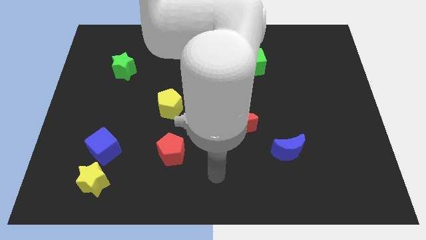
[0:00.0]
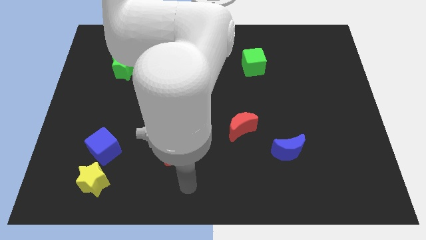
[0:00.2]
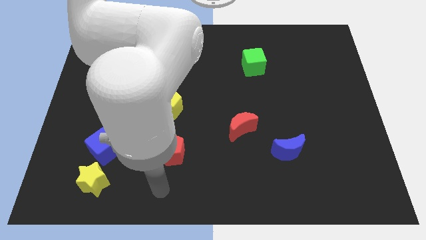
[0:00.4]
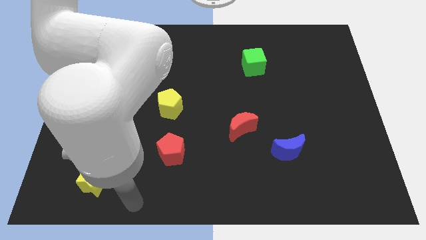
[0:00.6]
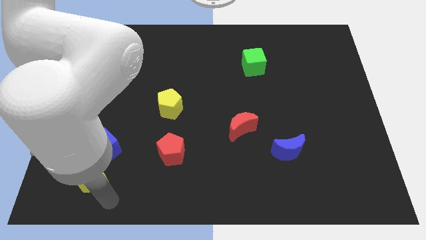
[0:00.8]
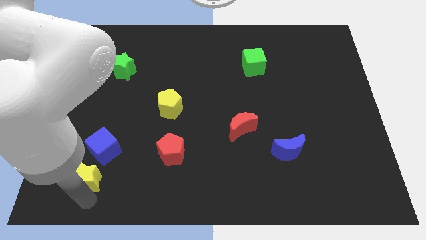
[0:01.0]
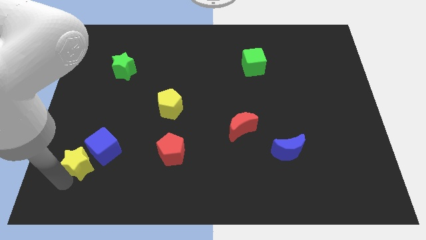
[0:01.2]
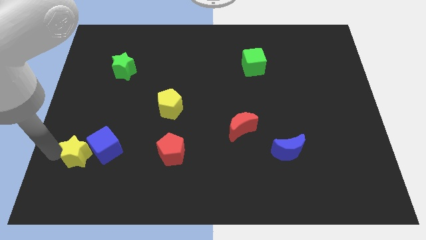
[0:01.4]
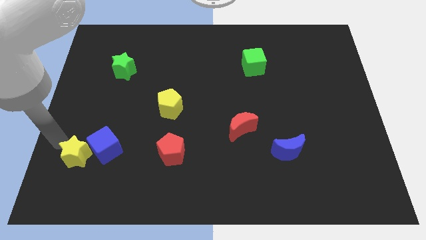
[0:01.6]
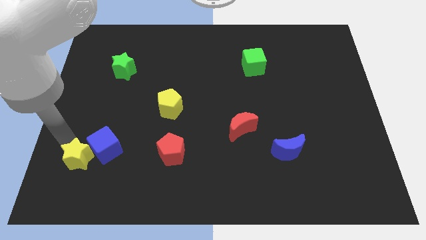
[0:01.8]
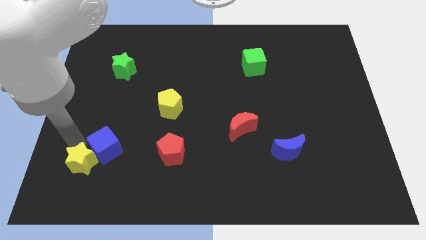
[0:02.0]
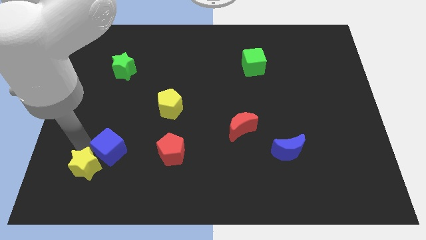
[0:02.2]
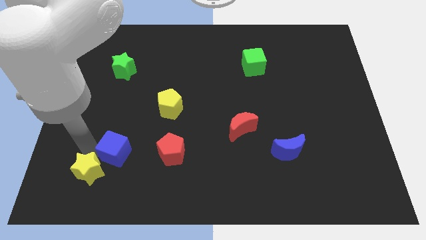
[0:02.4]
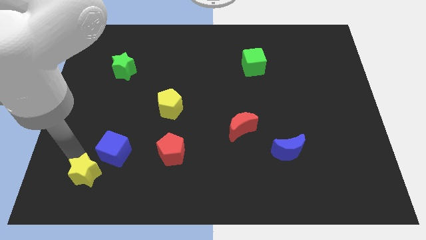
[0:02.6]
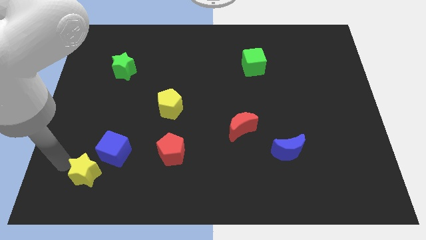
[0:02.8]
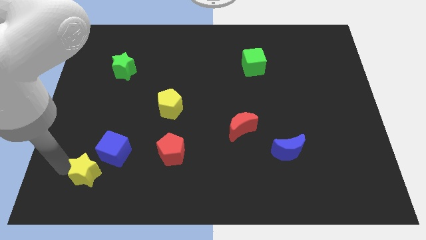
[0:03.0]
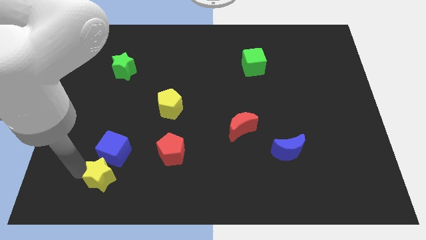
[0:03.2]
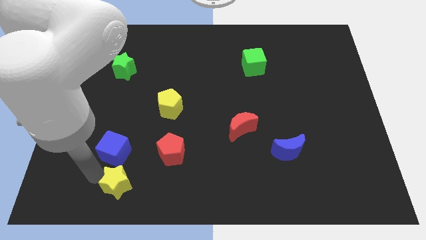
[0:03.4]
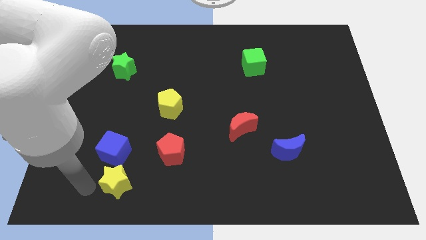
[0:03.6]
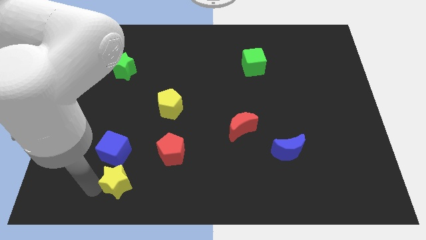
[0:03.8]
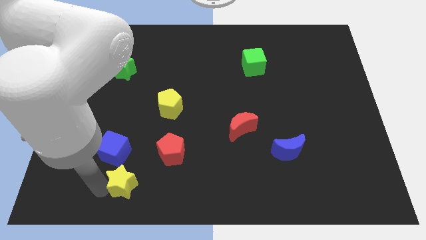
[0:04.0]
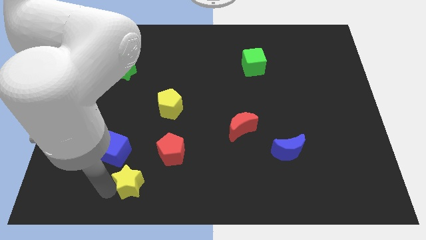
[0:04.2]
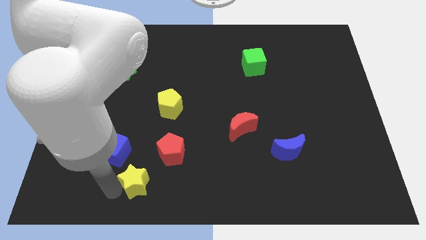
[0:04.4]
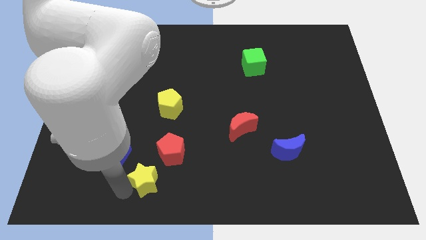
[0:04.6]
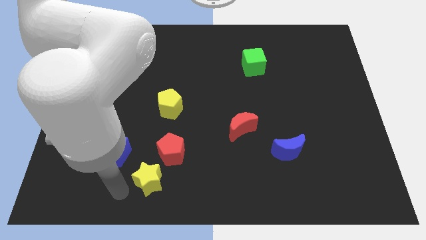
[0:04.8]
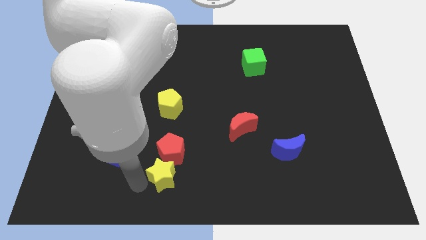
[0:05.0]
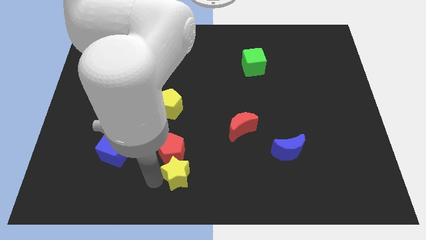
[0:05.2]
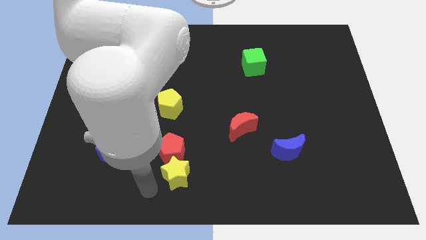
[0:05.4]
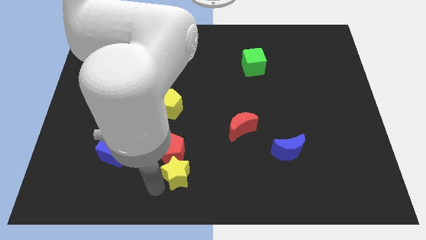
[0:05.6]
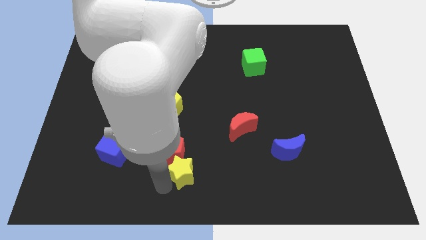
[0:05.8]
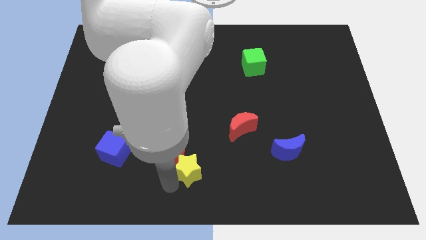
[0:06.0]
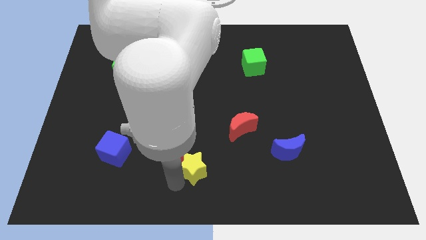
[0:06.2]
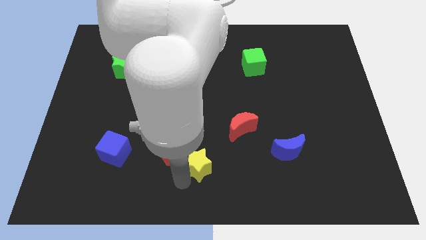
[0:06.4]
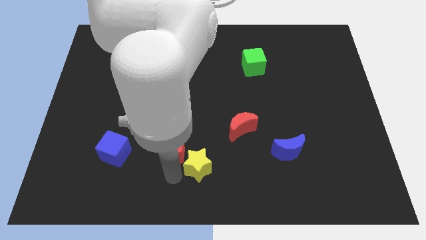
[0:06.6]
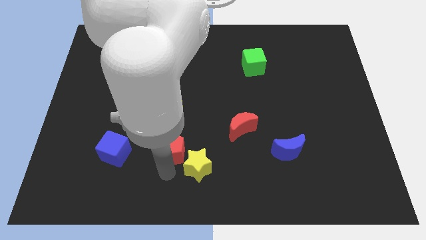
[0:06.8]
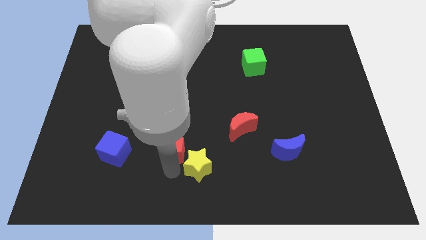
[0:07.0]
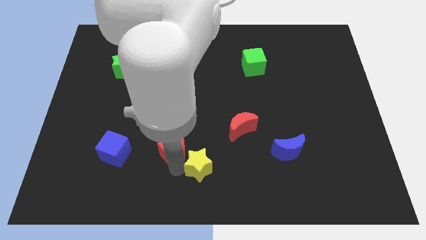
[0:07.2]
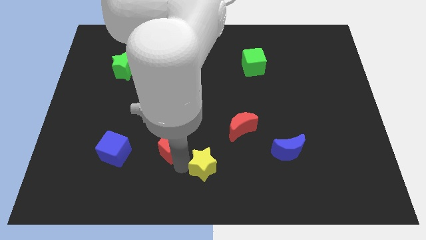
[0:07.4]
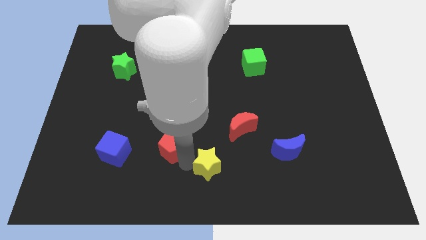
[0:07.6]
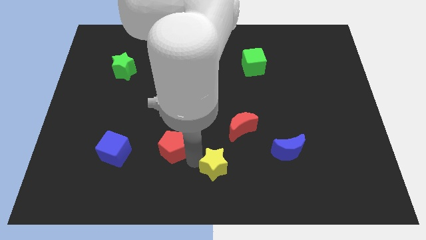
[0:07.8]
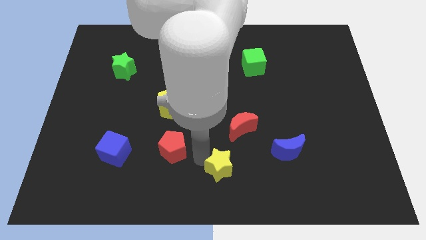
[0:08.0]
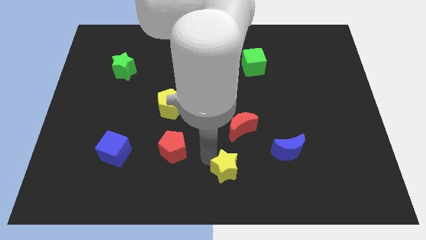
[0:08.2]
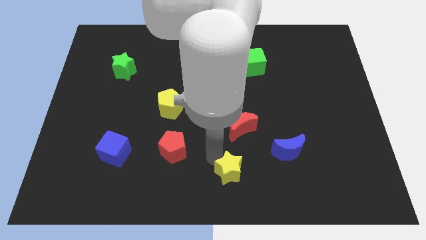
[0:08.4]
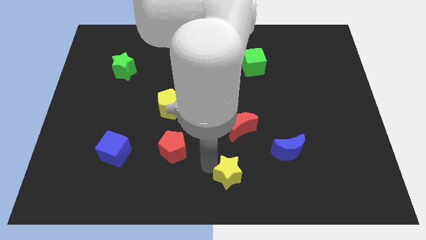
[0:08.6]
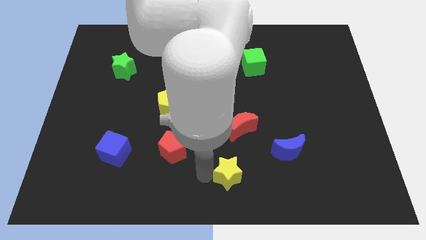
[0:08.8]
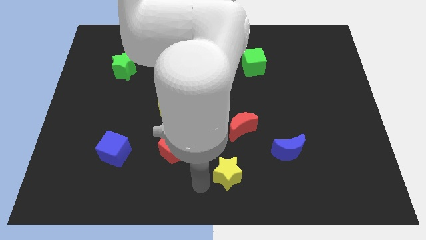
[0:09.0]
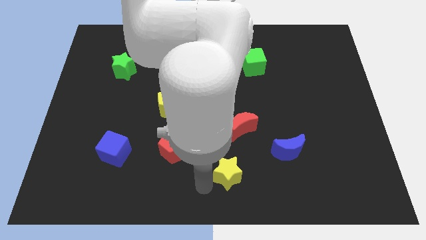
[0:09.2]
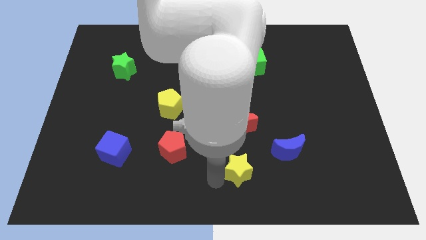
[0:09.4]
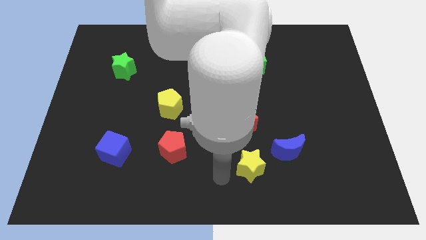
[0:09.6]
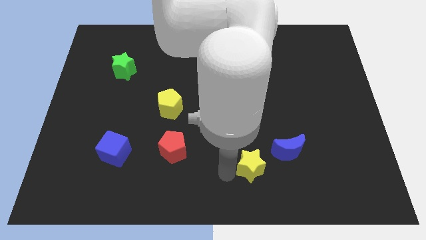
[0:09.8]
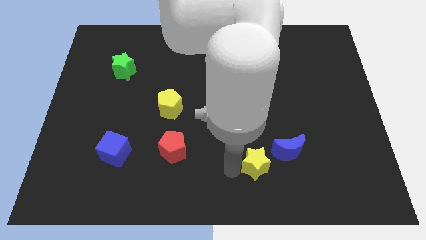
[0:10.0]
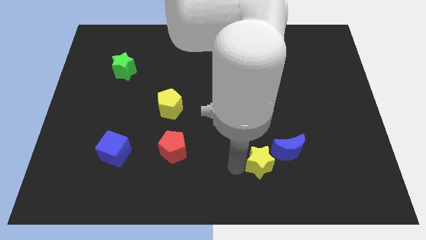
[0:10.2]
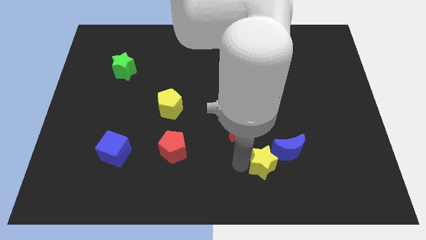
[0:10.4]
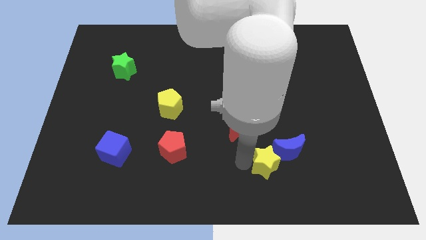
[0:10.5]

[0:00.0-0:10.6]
slide the yellow star towards the blue moon
